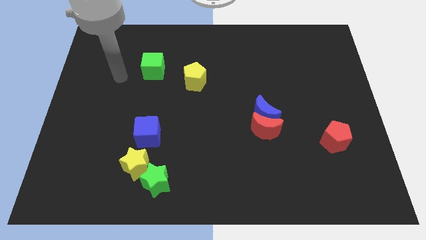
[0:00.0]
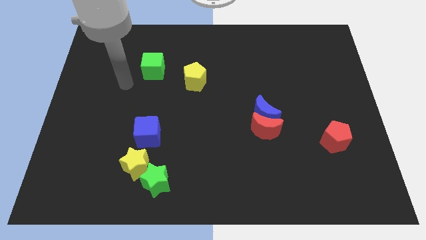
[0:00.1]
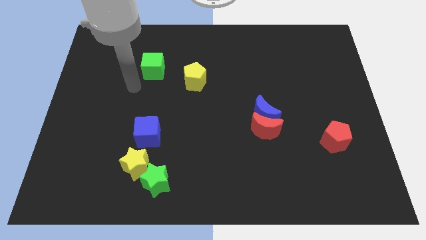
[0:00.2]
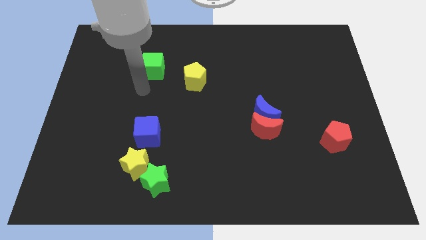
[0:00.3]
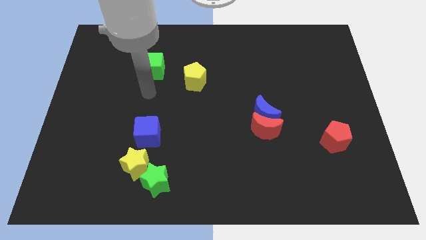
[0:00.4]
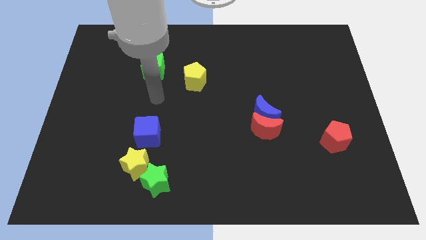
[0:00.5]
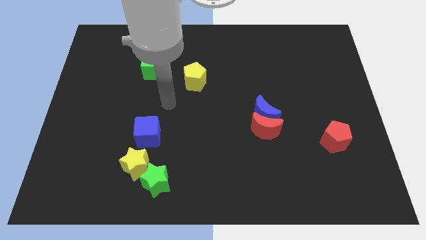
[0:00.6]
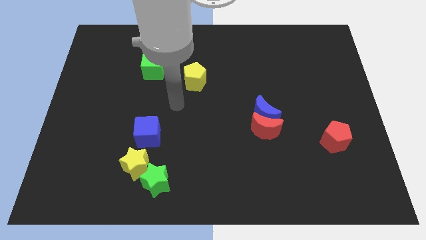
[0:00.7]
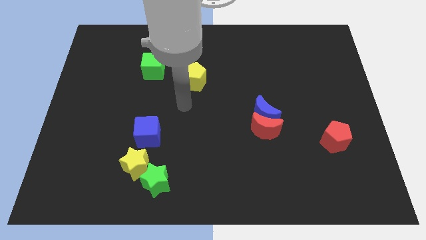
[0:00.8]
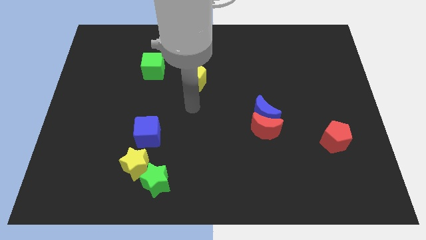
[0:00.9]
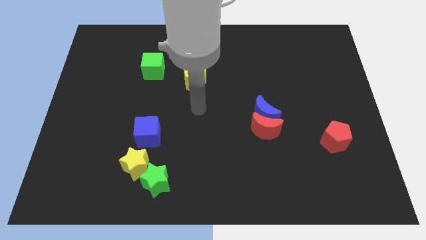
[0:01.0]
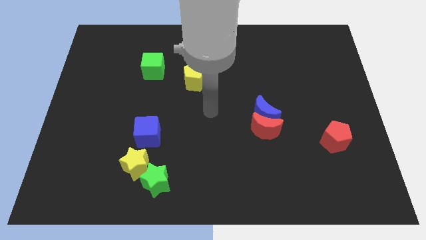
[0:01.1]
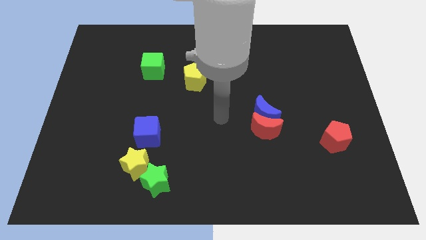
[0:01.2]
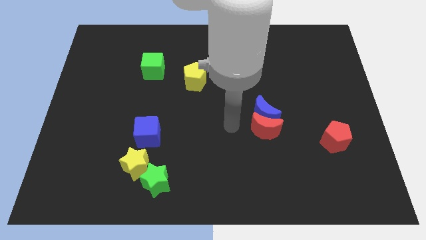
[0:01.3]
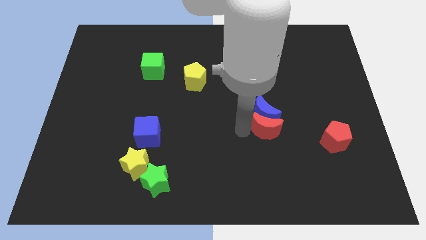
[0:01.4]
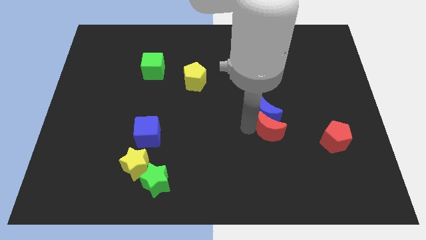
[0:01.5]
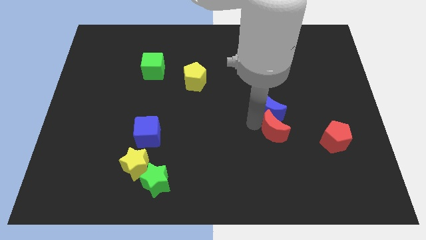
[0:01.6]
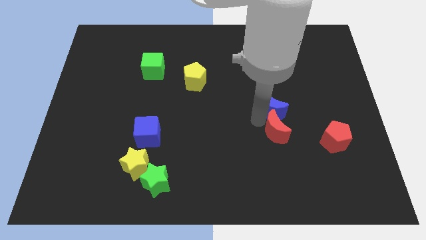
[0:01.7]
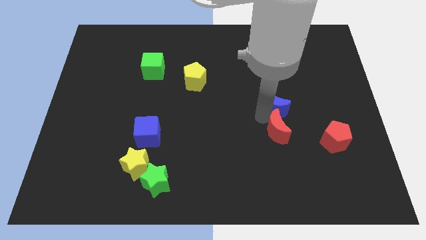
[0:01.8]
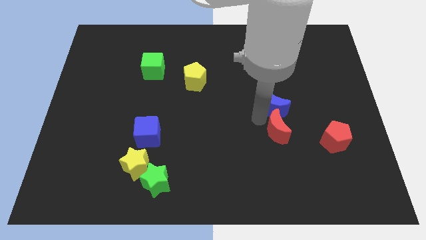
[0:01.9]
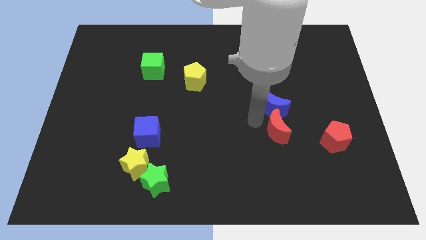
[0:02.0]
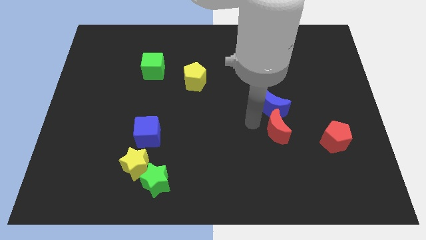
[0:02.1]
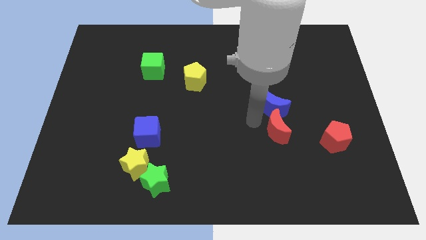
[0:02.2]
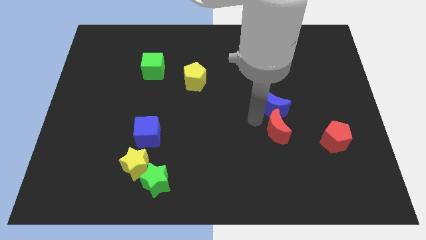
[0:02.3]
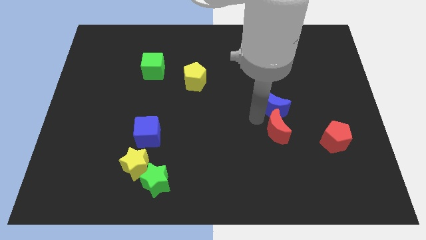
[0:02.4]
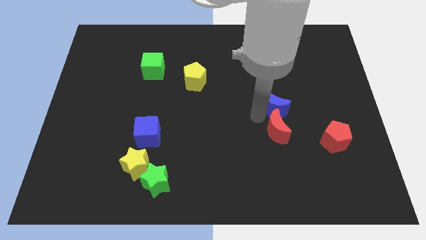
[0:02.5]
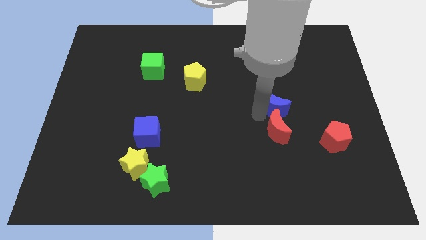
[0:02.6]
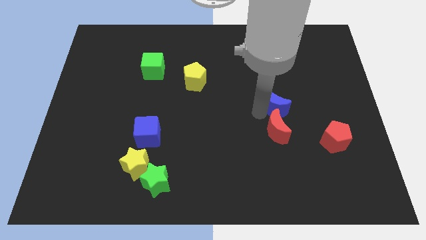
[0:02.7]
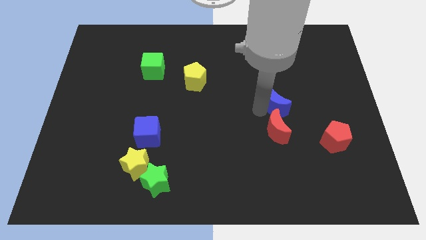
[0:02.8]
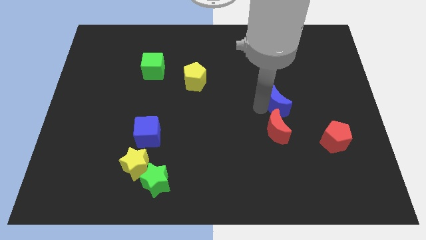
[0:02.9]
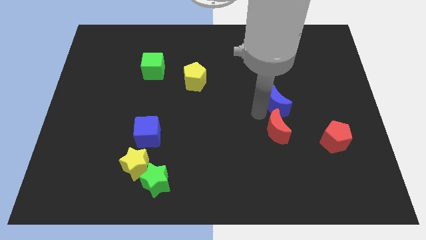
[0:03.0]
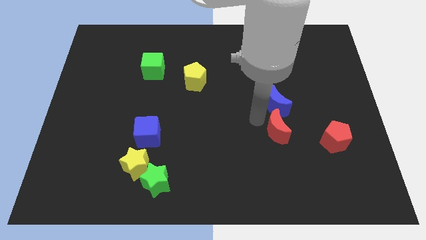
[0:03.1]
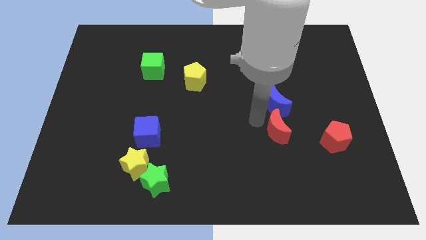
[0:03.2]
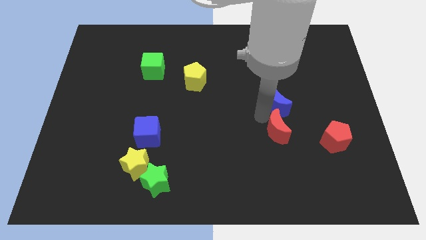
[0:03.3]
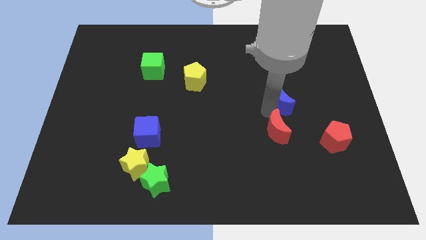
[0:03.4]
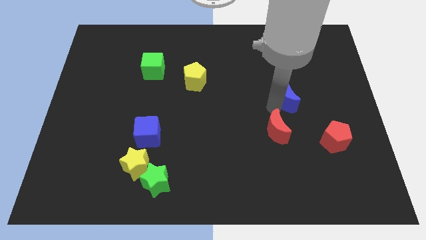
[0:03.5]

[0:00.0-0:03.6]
slide the blue moon upwards and to the right somewhat

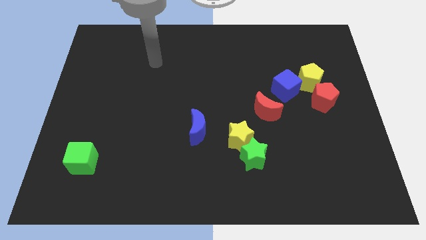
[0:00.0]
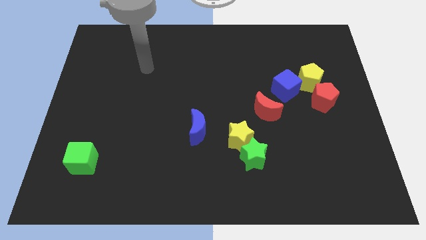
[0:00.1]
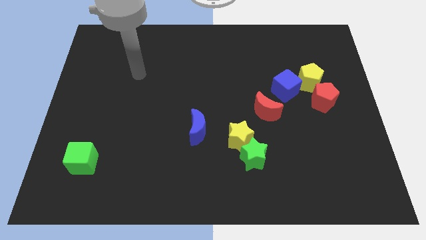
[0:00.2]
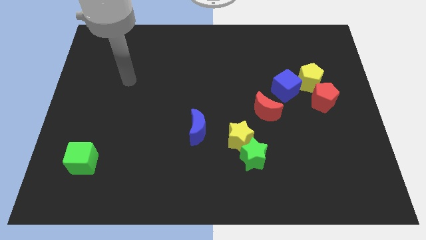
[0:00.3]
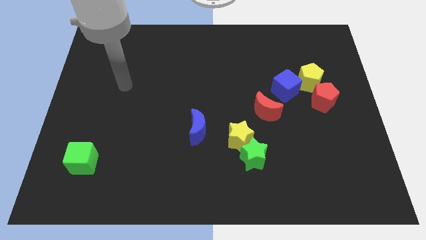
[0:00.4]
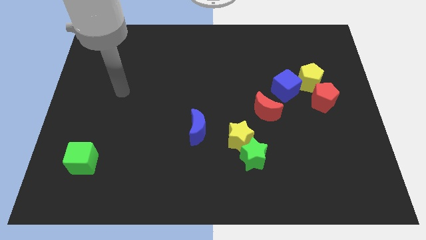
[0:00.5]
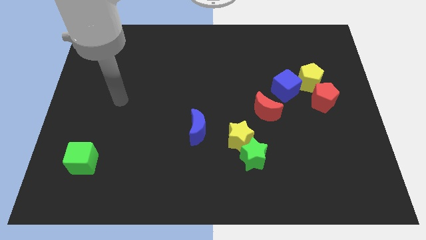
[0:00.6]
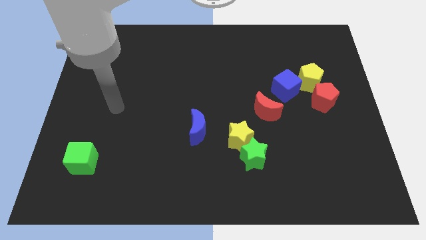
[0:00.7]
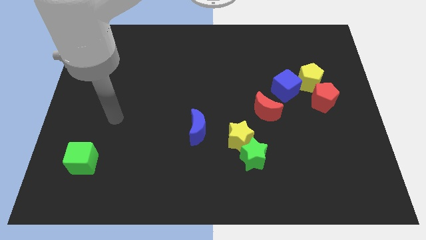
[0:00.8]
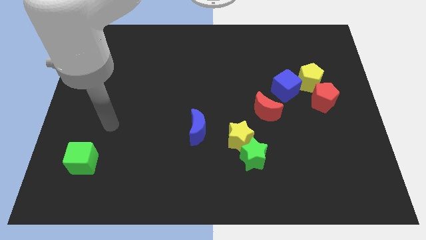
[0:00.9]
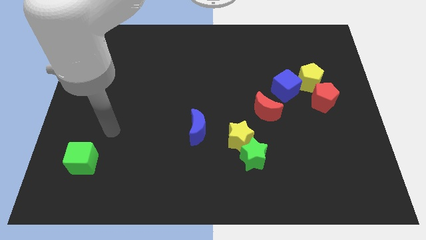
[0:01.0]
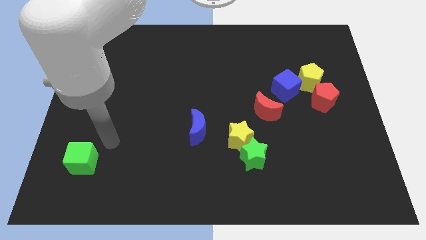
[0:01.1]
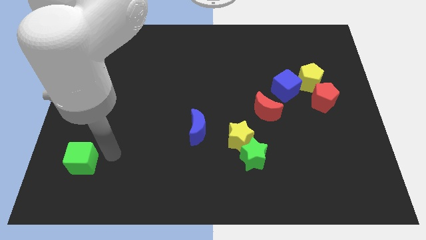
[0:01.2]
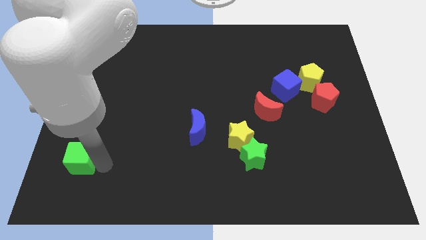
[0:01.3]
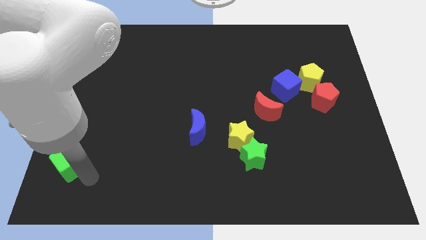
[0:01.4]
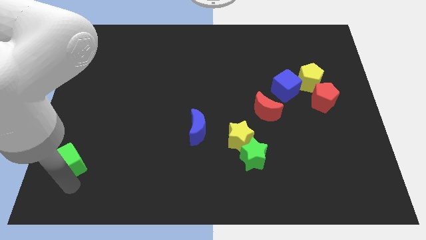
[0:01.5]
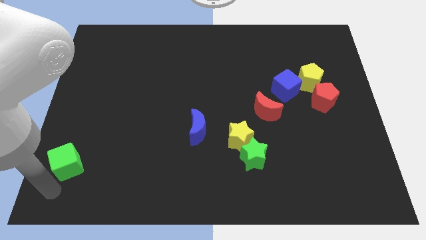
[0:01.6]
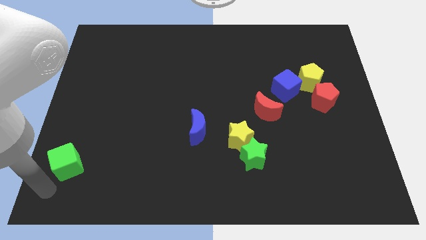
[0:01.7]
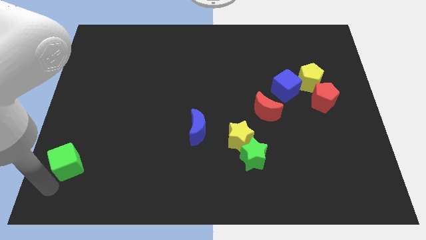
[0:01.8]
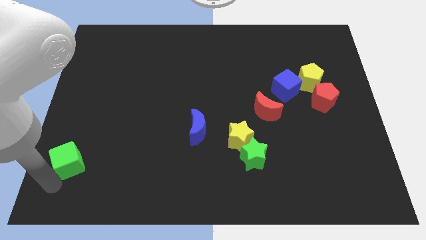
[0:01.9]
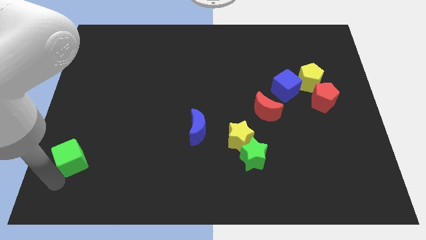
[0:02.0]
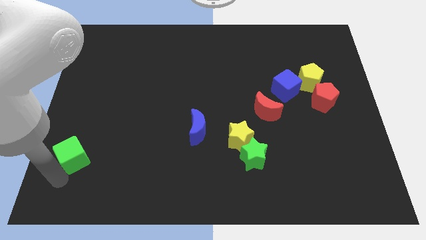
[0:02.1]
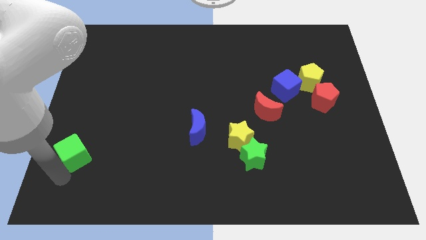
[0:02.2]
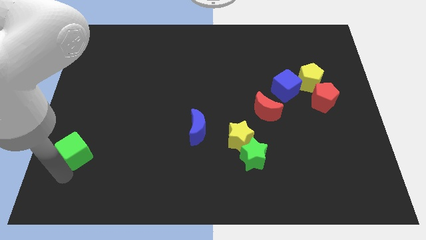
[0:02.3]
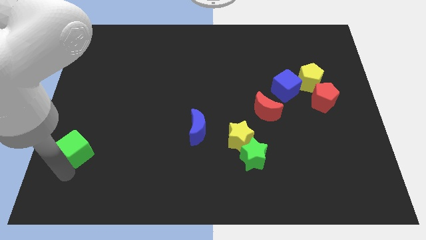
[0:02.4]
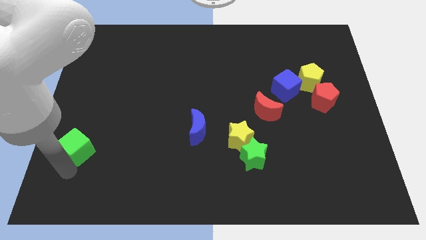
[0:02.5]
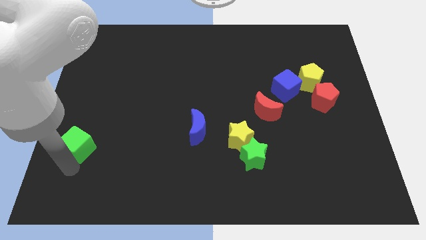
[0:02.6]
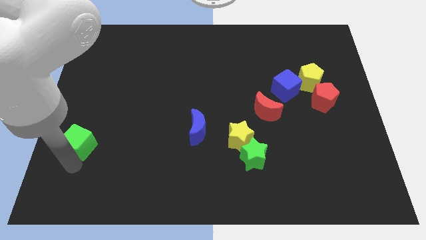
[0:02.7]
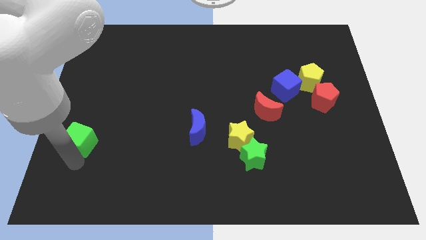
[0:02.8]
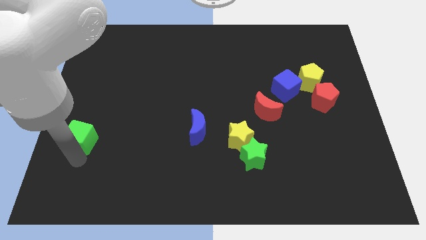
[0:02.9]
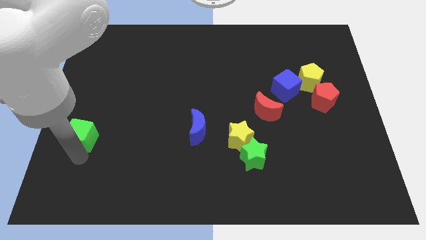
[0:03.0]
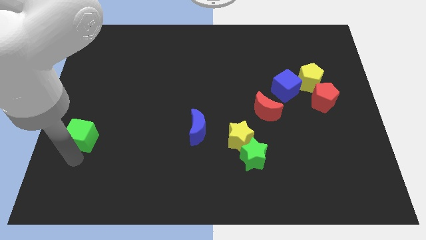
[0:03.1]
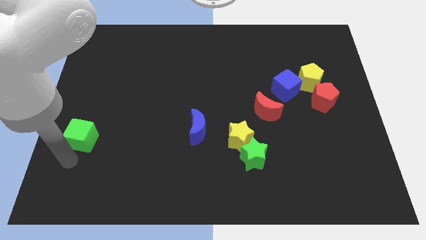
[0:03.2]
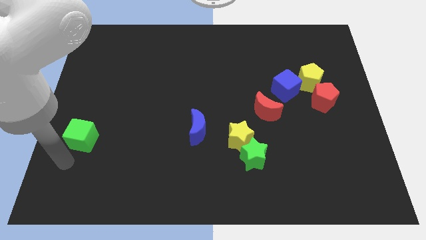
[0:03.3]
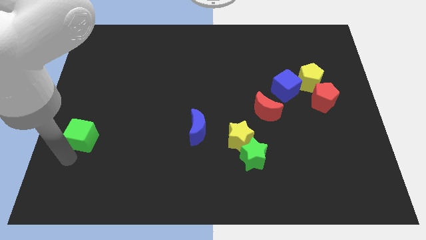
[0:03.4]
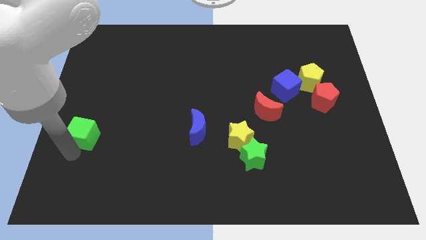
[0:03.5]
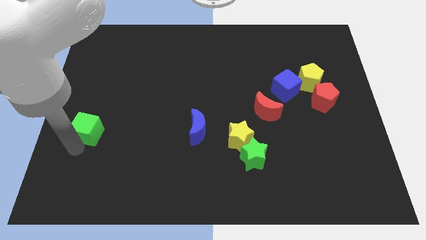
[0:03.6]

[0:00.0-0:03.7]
slightly move the green cube up

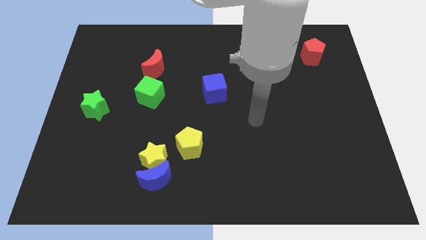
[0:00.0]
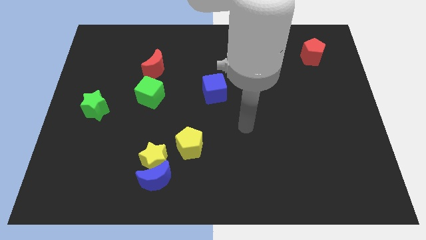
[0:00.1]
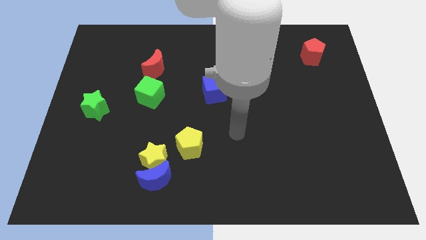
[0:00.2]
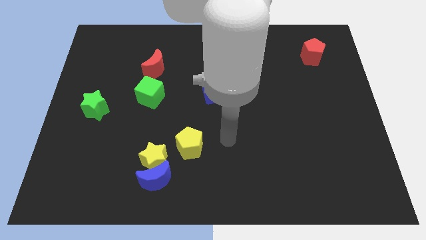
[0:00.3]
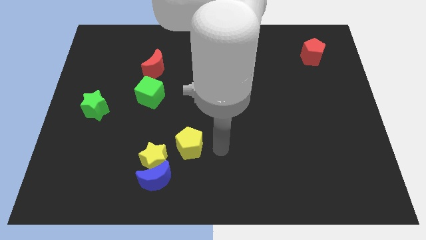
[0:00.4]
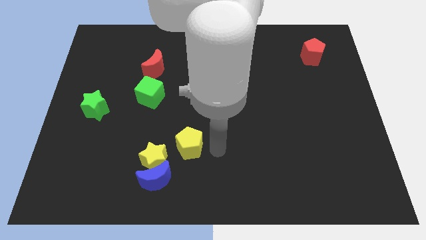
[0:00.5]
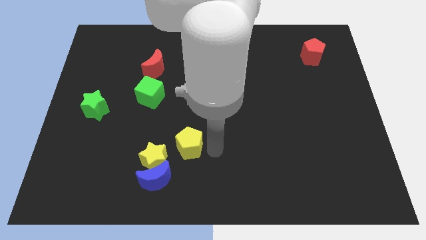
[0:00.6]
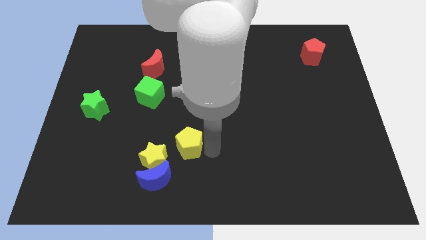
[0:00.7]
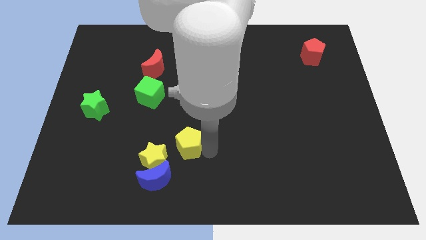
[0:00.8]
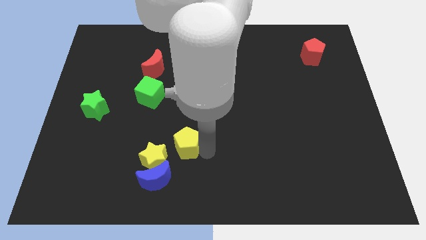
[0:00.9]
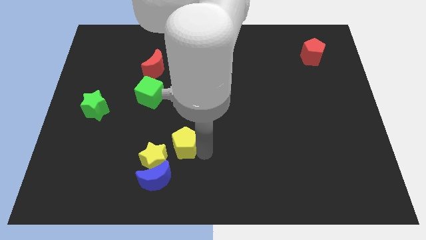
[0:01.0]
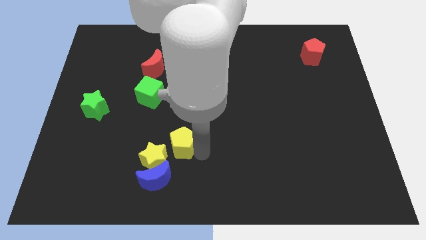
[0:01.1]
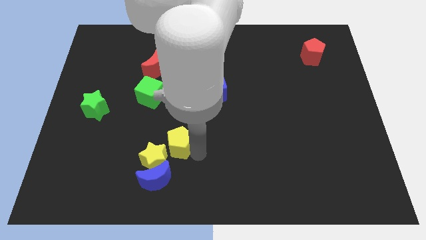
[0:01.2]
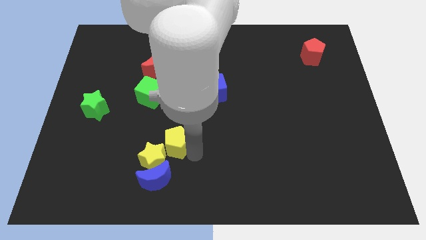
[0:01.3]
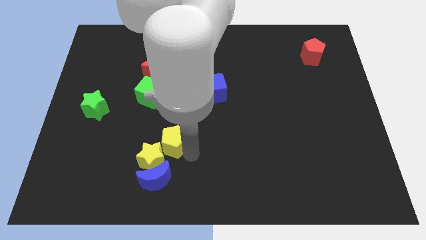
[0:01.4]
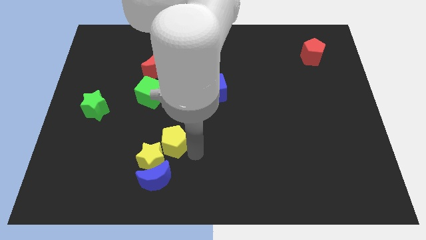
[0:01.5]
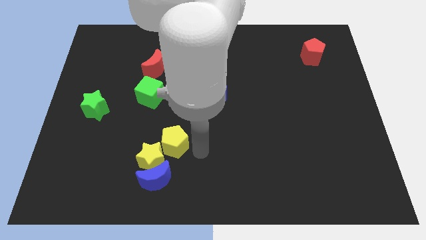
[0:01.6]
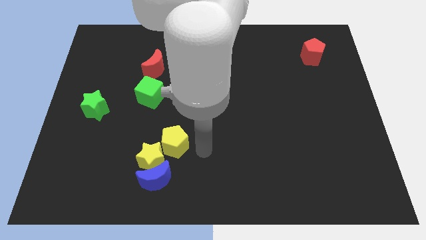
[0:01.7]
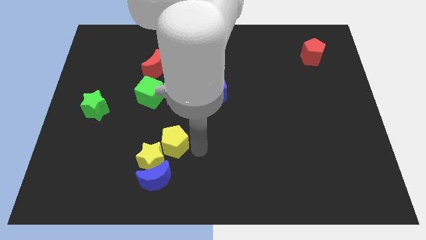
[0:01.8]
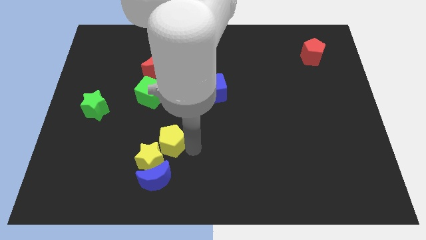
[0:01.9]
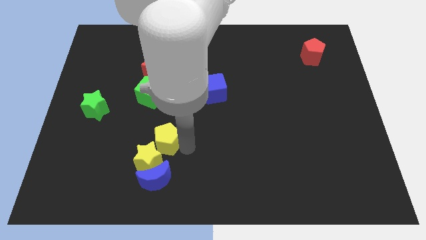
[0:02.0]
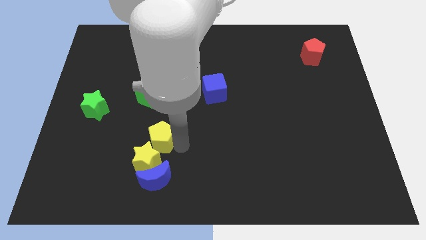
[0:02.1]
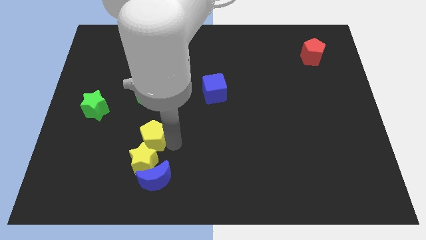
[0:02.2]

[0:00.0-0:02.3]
slightly push the yellow pentagon to the left
